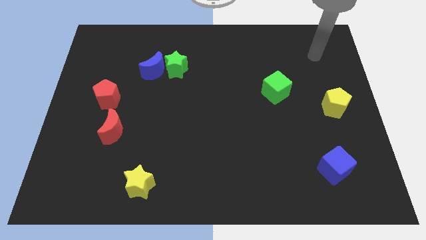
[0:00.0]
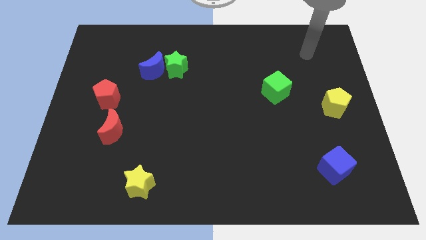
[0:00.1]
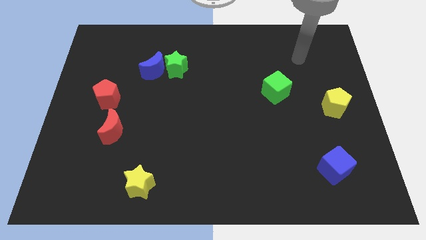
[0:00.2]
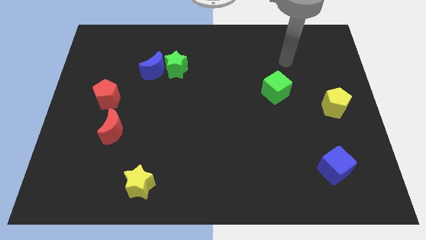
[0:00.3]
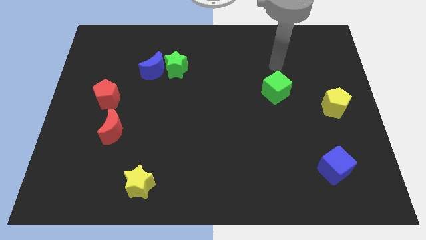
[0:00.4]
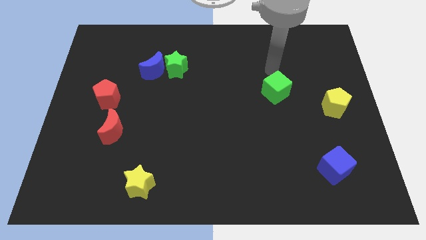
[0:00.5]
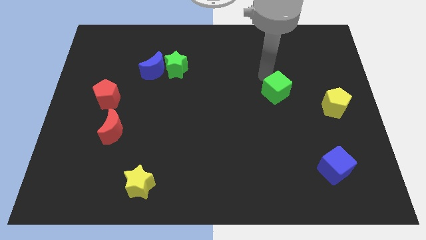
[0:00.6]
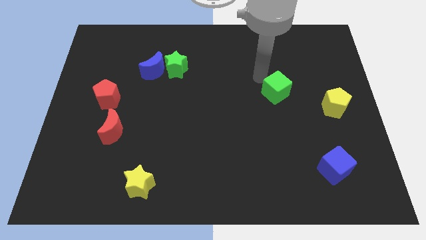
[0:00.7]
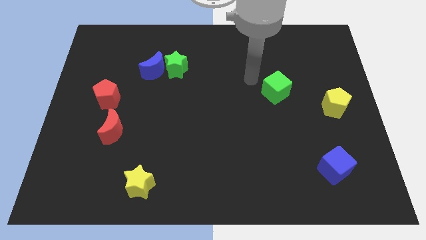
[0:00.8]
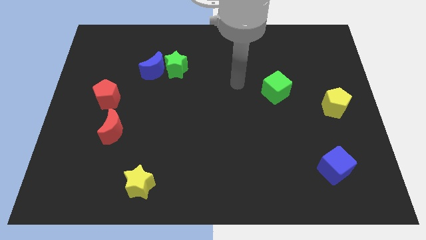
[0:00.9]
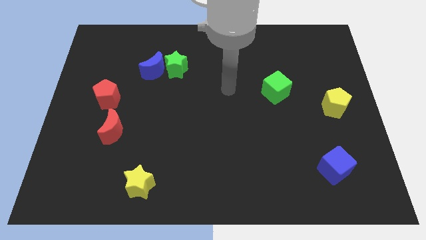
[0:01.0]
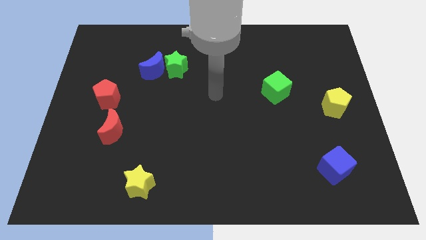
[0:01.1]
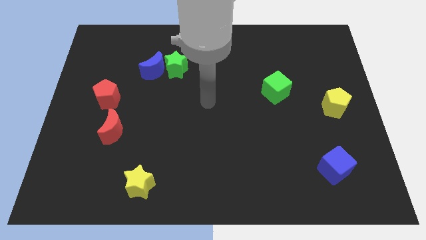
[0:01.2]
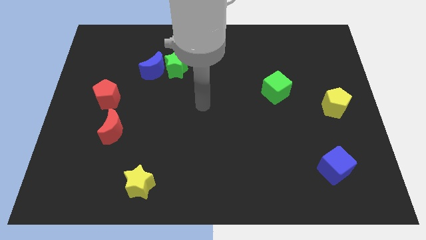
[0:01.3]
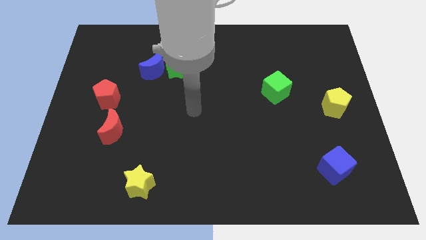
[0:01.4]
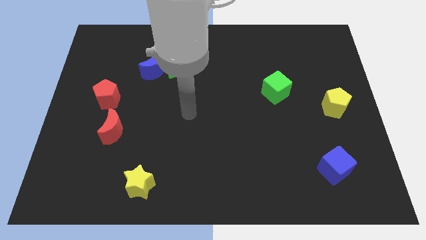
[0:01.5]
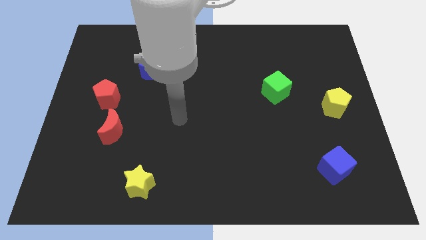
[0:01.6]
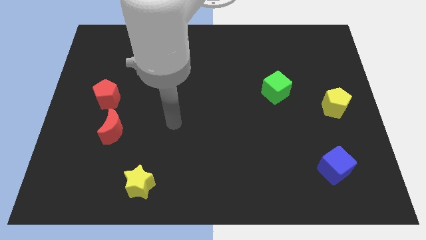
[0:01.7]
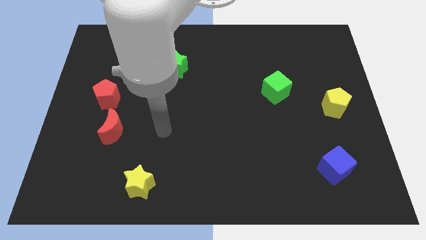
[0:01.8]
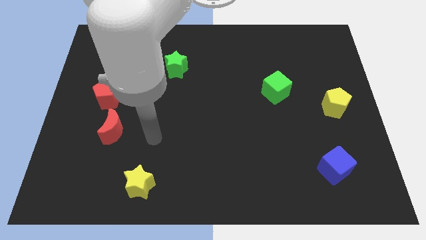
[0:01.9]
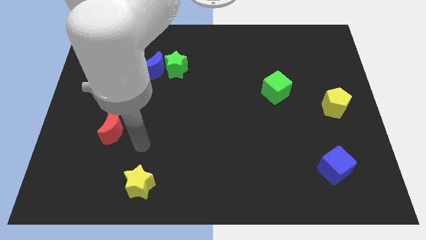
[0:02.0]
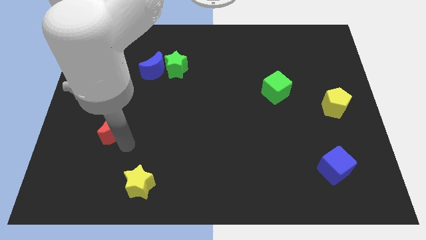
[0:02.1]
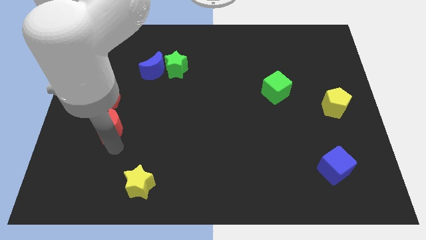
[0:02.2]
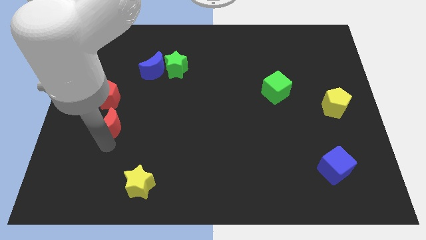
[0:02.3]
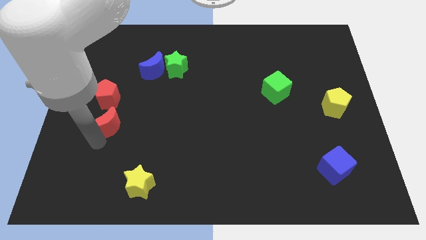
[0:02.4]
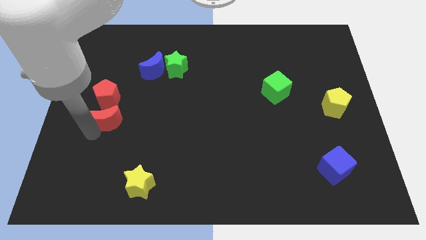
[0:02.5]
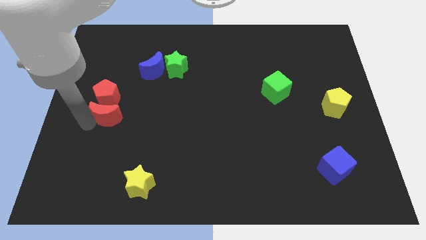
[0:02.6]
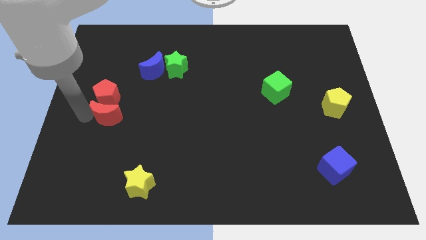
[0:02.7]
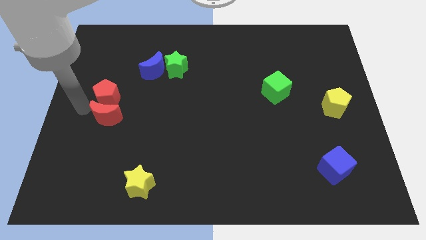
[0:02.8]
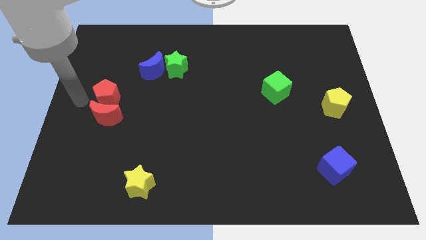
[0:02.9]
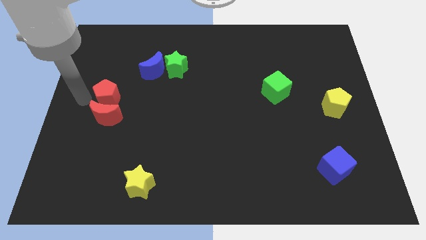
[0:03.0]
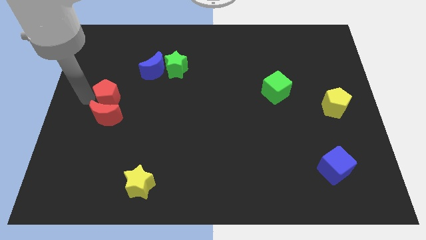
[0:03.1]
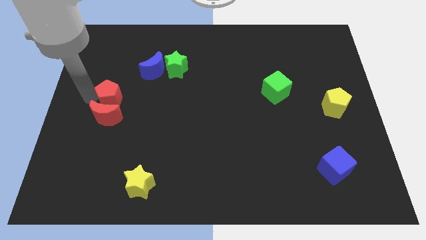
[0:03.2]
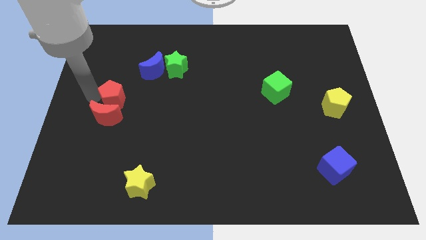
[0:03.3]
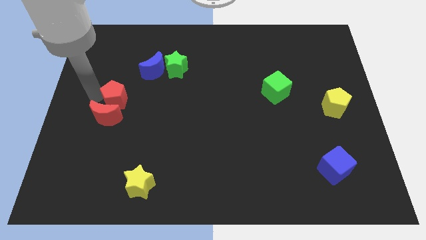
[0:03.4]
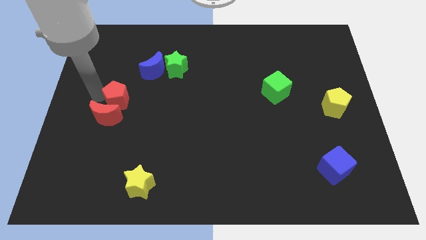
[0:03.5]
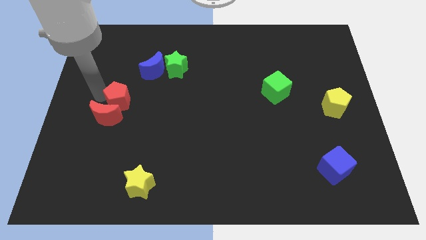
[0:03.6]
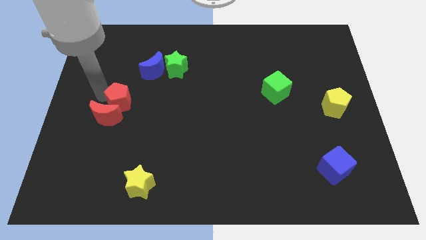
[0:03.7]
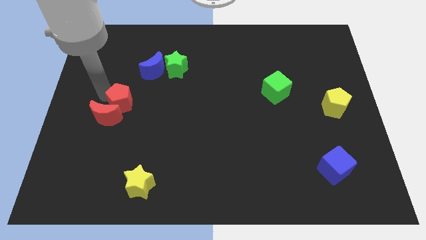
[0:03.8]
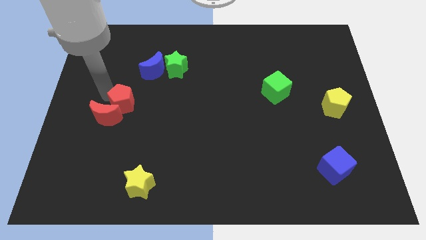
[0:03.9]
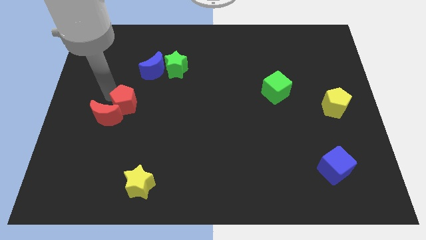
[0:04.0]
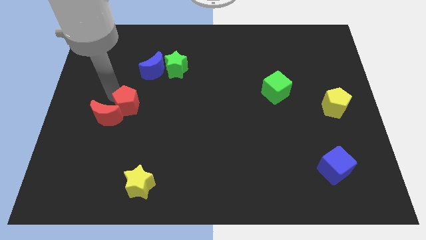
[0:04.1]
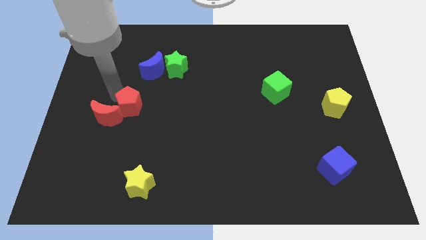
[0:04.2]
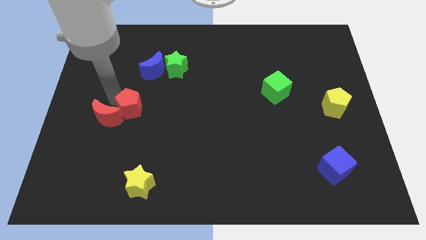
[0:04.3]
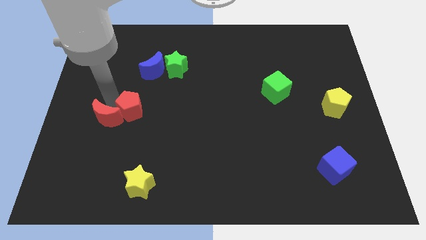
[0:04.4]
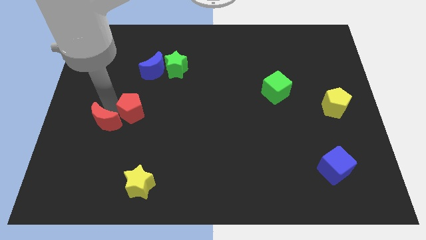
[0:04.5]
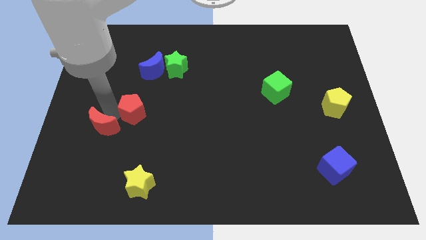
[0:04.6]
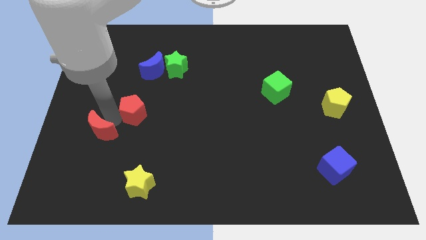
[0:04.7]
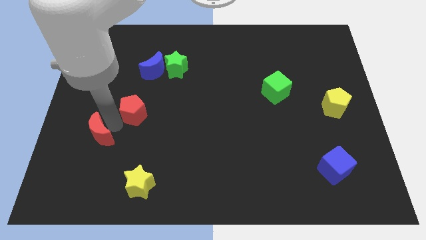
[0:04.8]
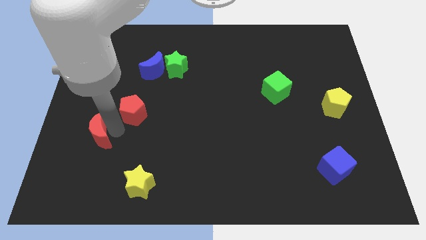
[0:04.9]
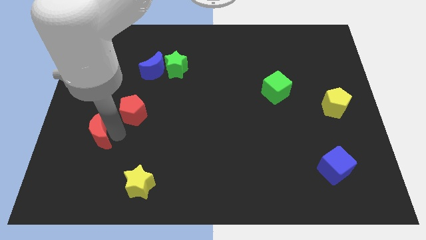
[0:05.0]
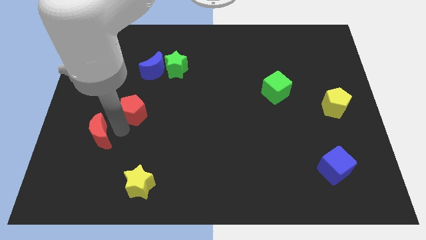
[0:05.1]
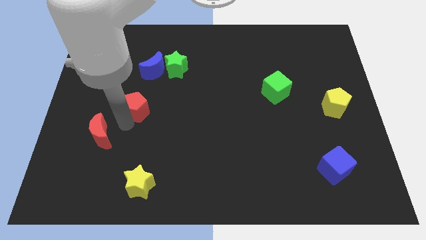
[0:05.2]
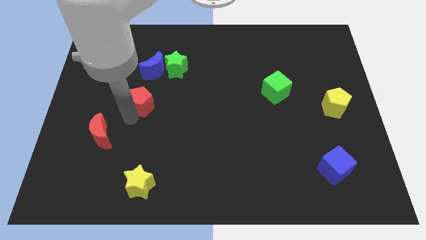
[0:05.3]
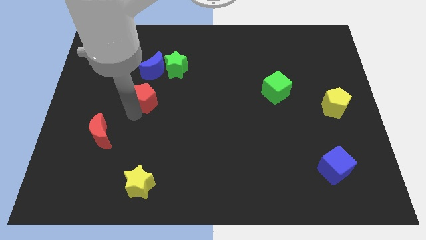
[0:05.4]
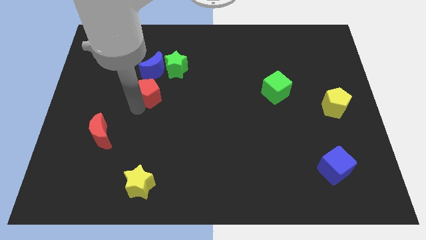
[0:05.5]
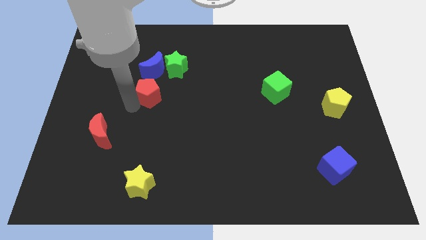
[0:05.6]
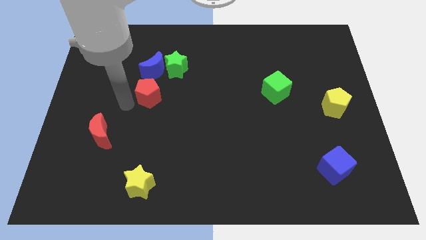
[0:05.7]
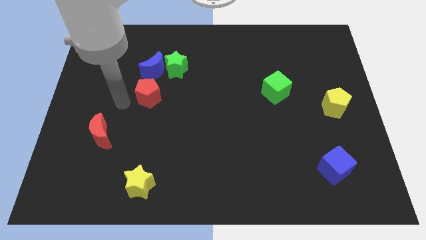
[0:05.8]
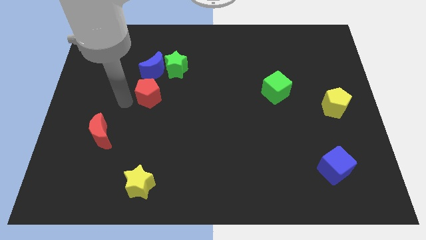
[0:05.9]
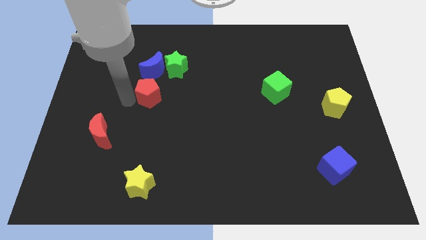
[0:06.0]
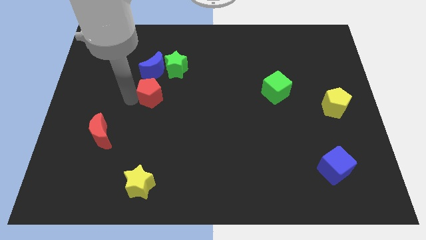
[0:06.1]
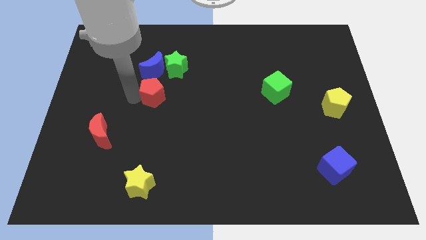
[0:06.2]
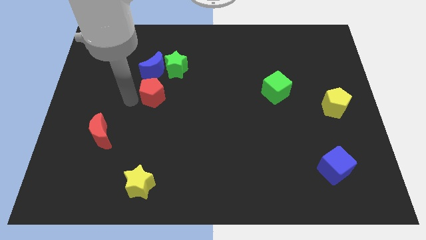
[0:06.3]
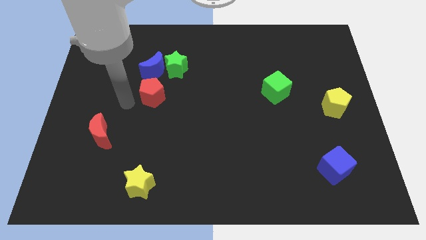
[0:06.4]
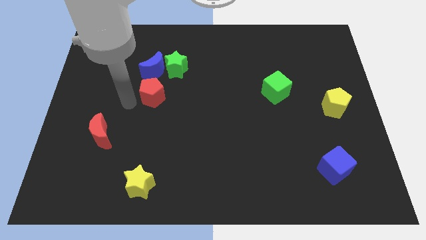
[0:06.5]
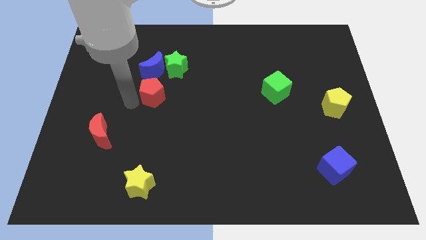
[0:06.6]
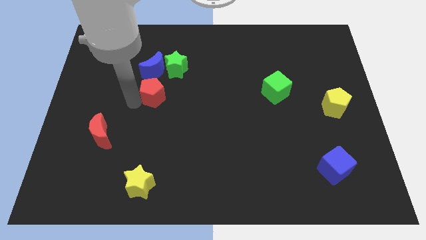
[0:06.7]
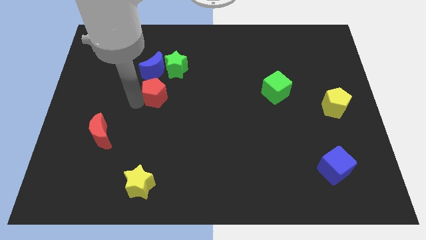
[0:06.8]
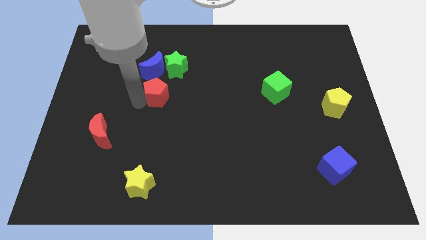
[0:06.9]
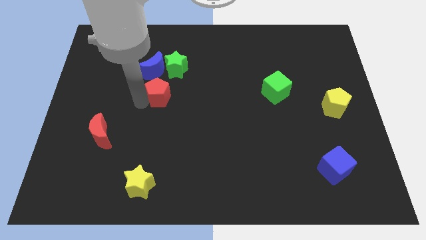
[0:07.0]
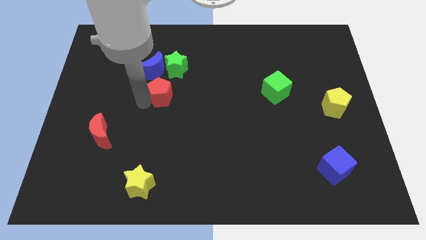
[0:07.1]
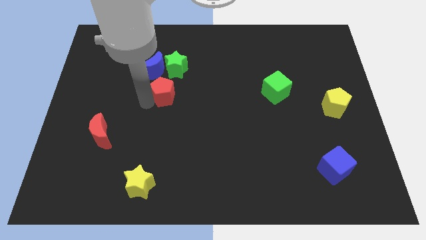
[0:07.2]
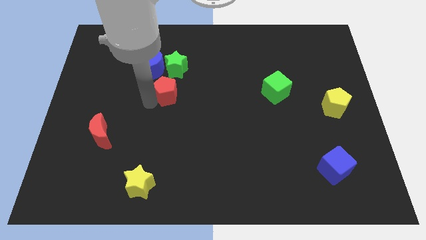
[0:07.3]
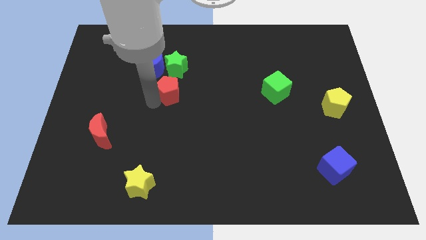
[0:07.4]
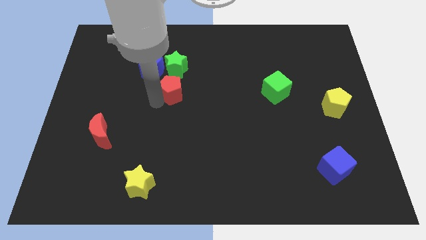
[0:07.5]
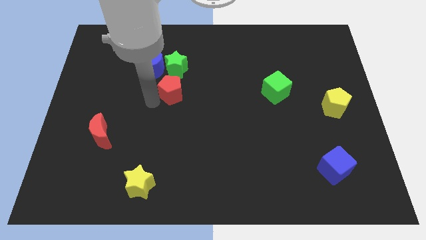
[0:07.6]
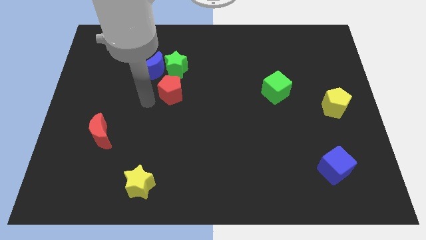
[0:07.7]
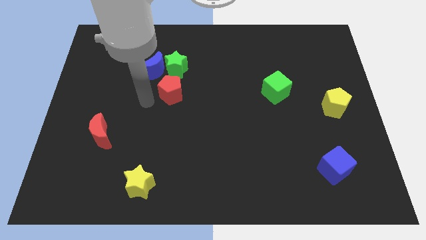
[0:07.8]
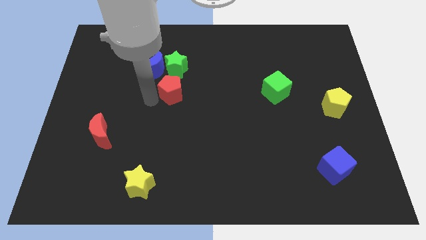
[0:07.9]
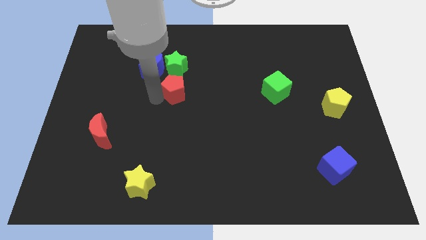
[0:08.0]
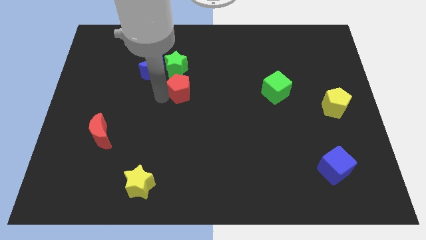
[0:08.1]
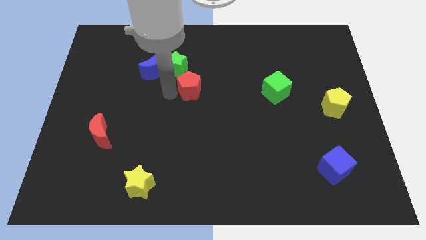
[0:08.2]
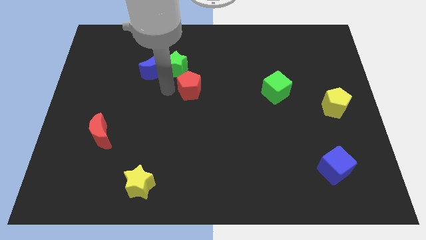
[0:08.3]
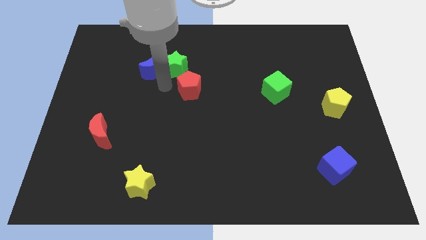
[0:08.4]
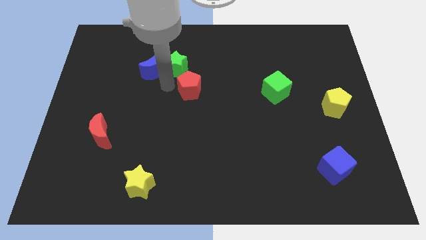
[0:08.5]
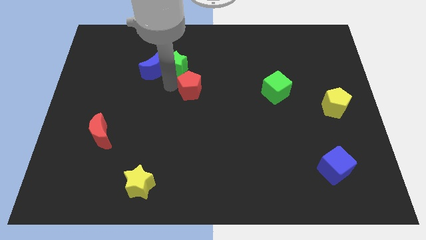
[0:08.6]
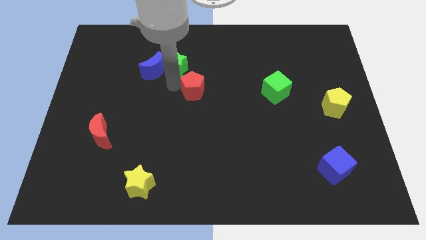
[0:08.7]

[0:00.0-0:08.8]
slide the red pentagon right
